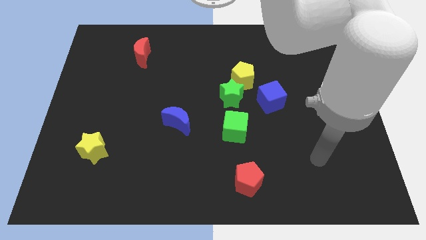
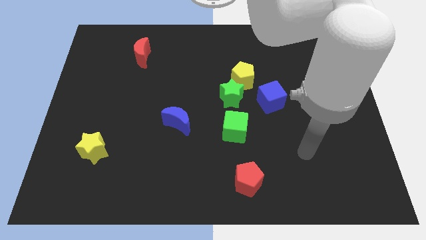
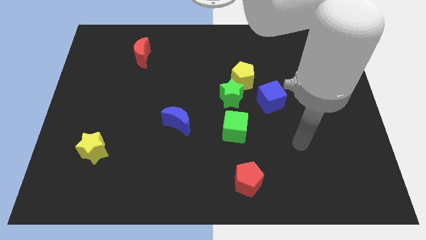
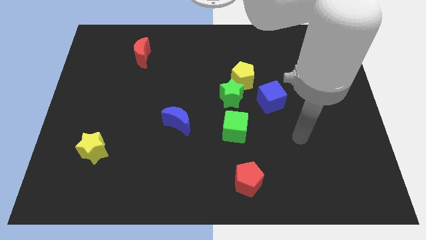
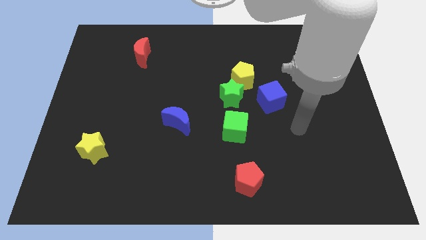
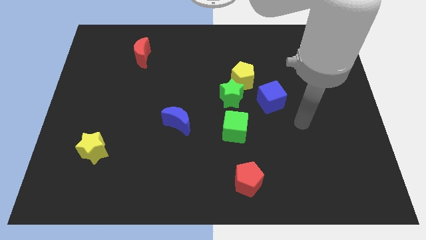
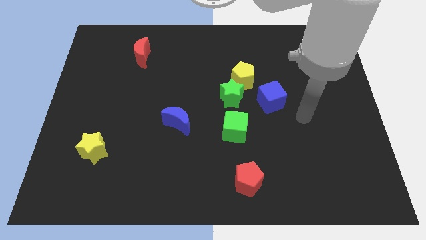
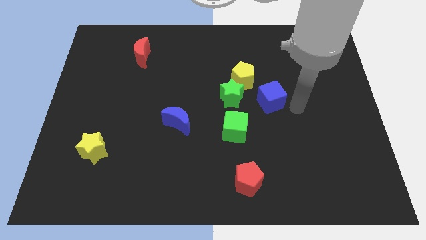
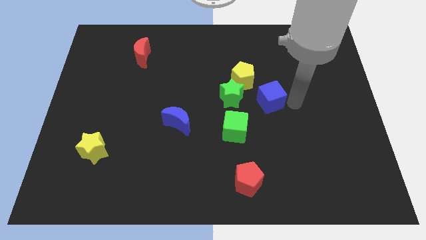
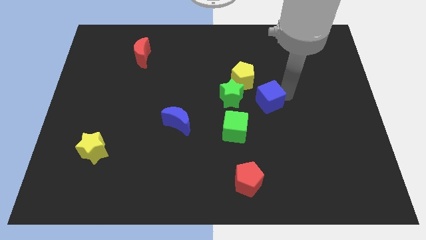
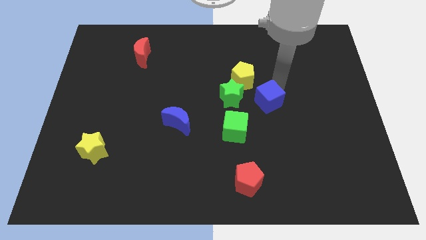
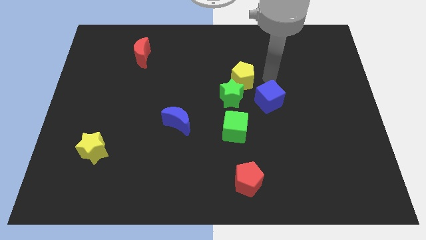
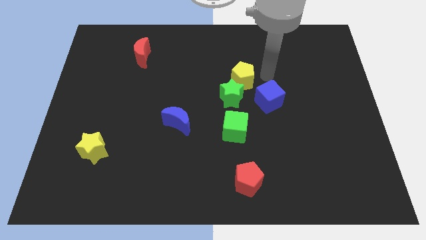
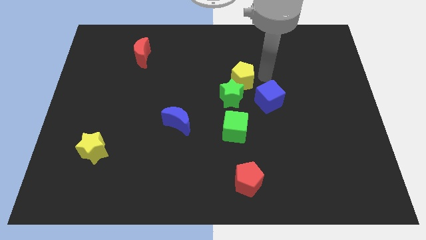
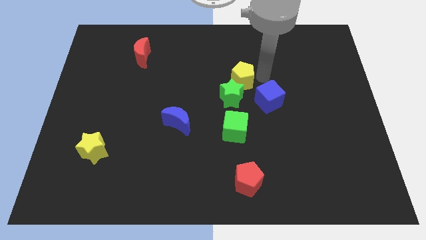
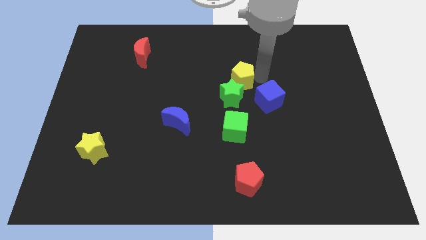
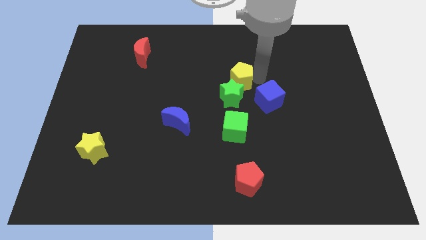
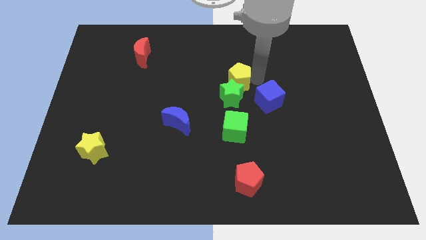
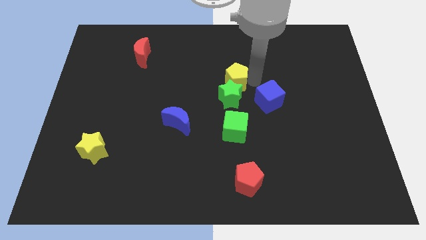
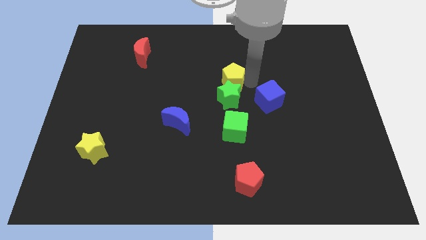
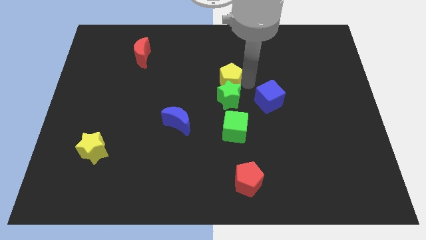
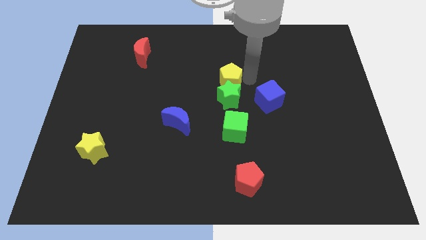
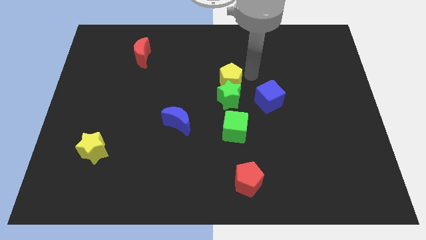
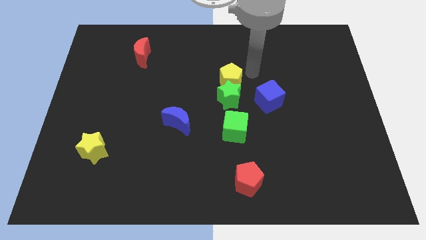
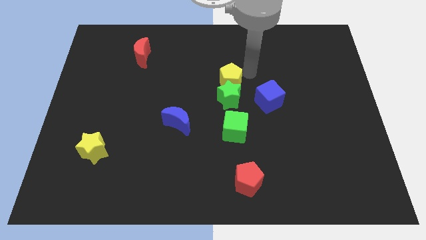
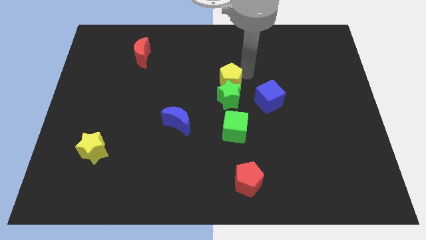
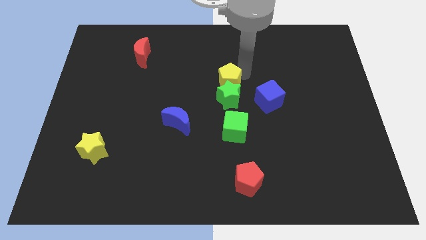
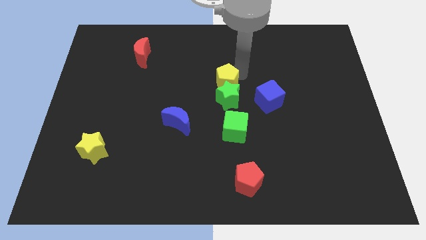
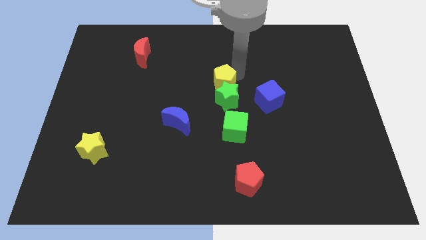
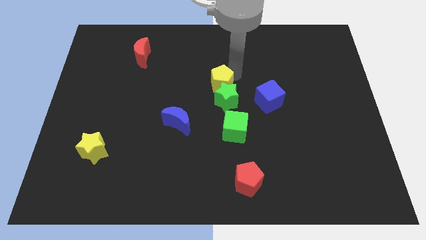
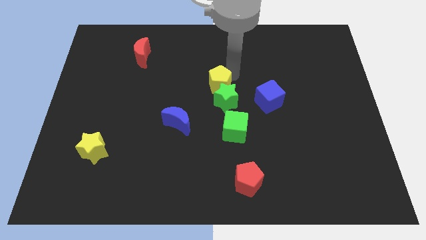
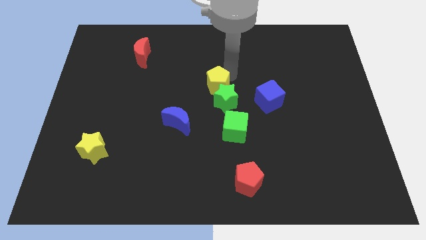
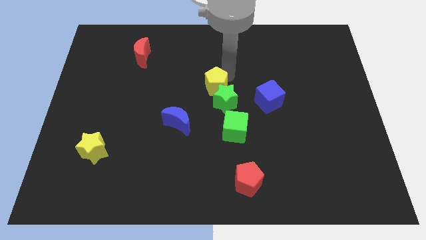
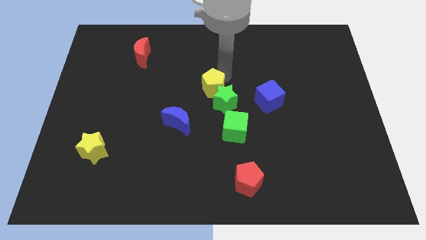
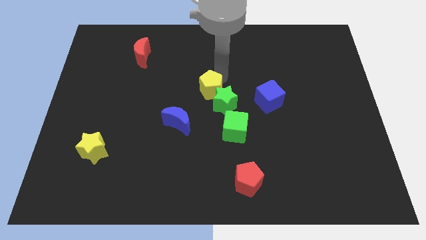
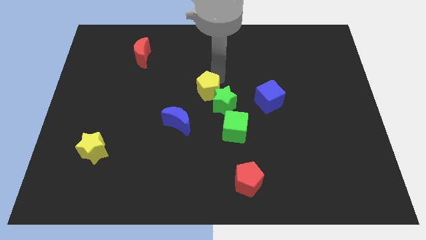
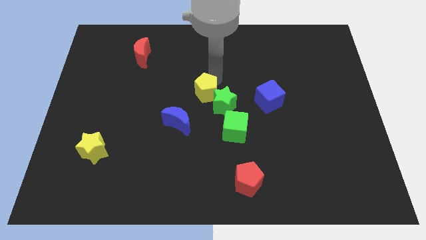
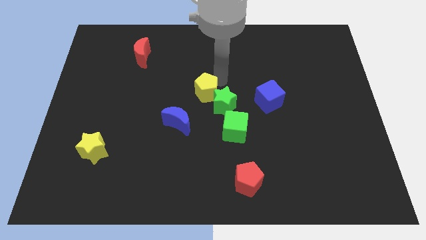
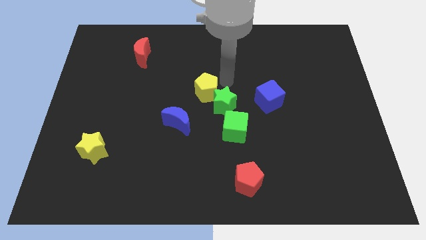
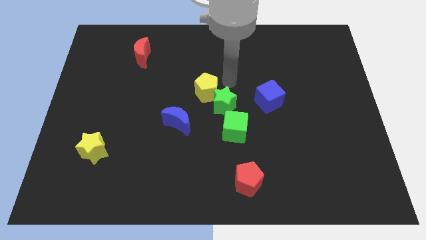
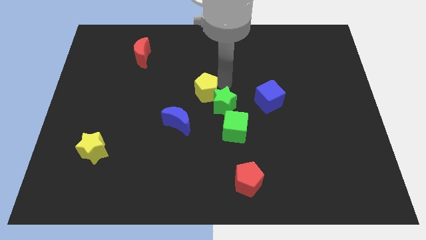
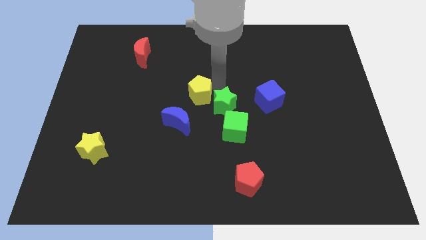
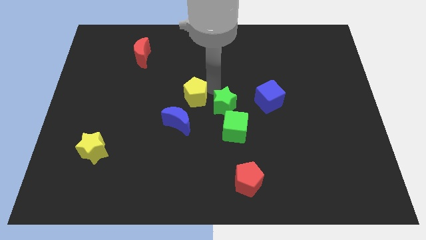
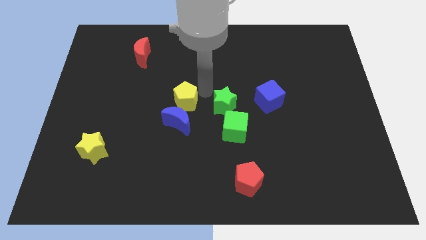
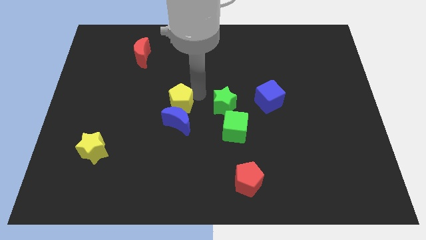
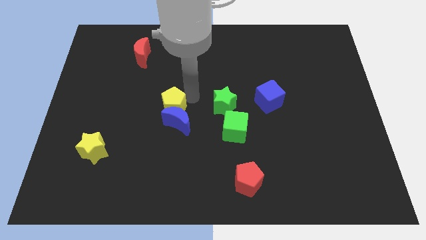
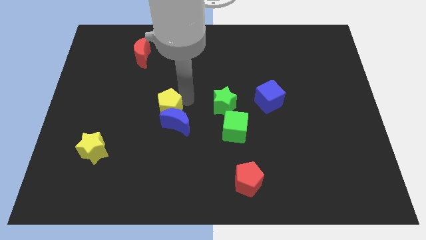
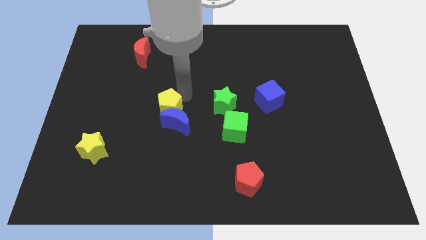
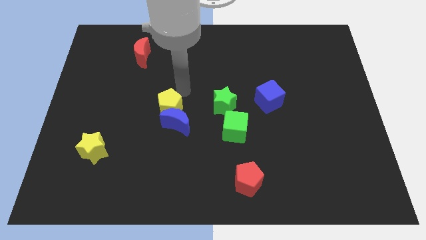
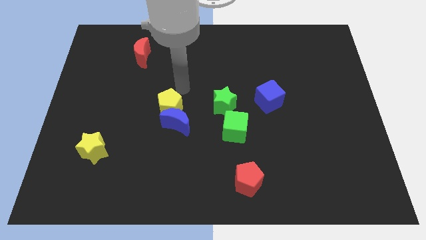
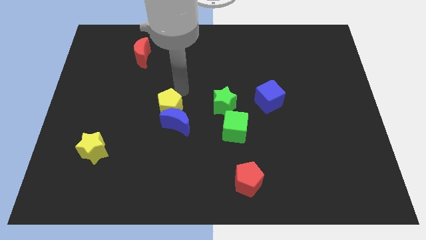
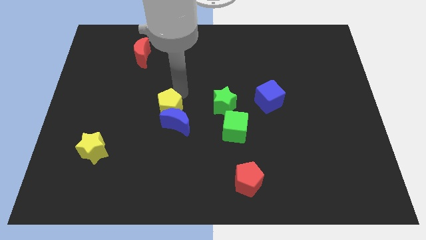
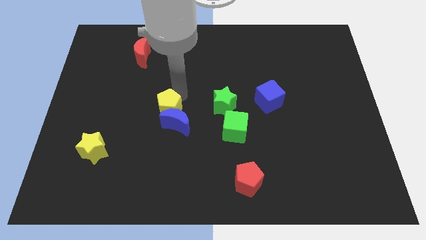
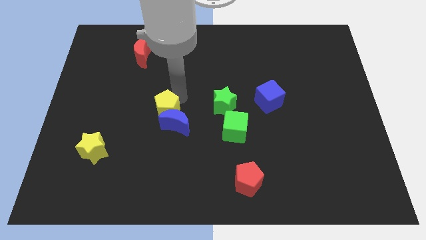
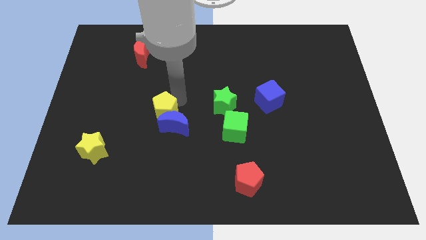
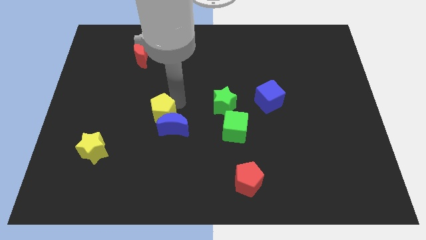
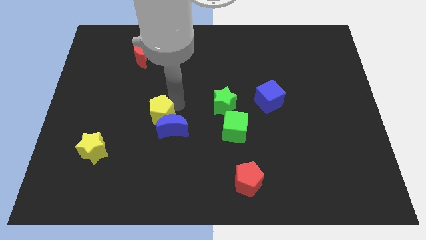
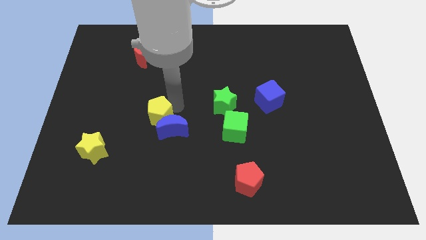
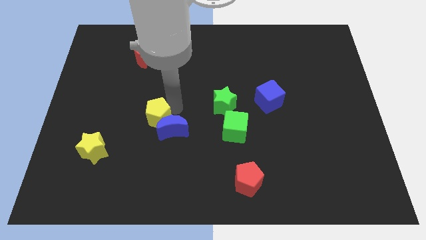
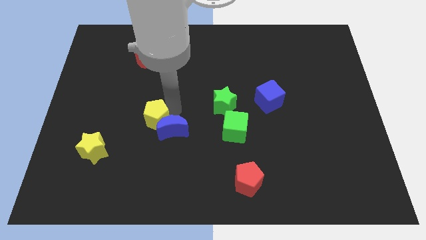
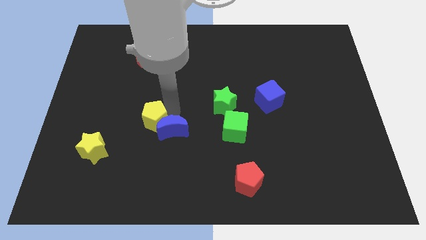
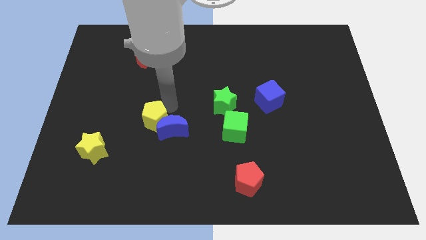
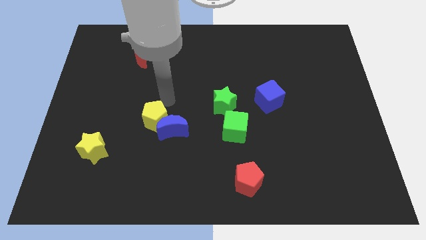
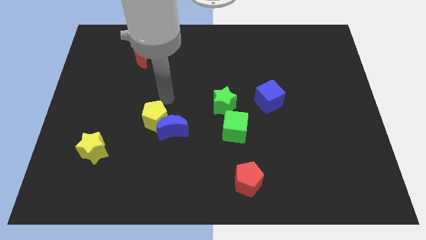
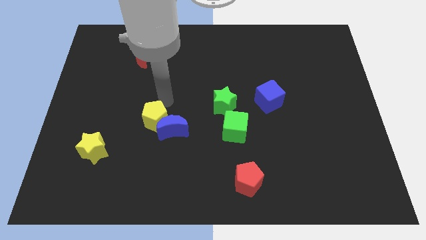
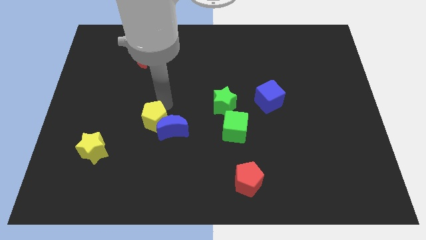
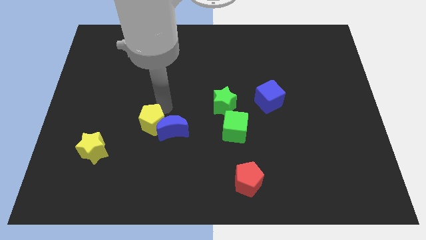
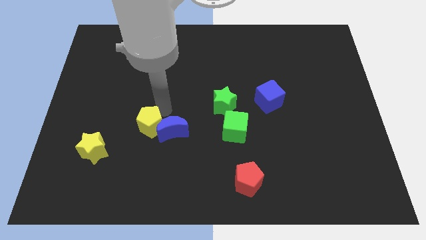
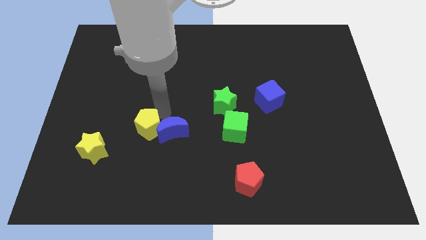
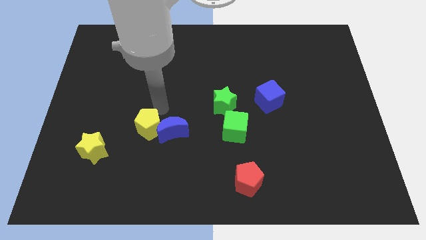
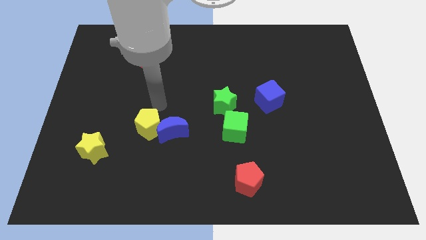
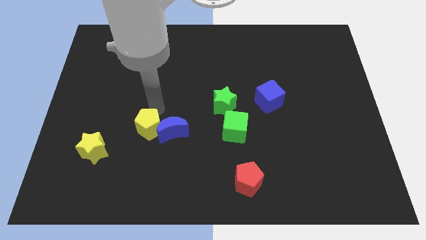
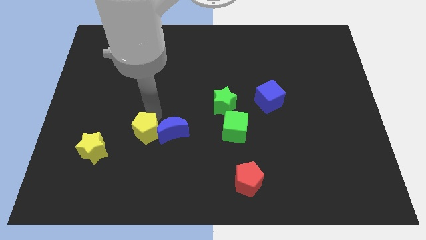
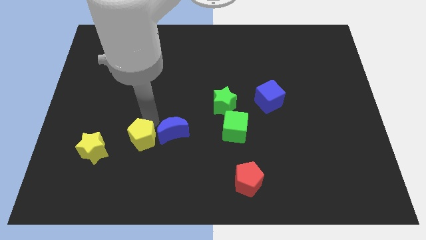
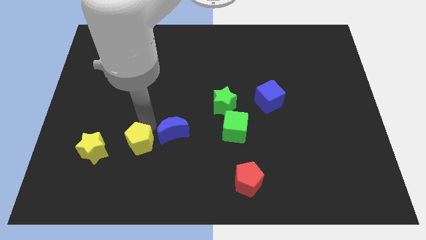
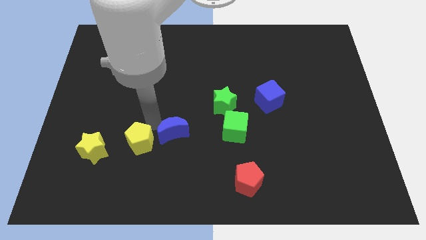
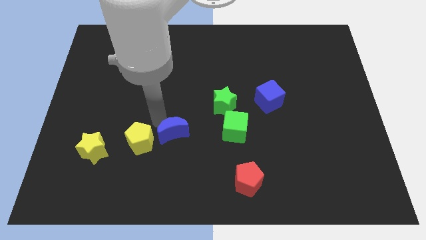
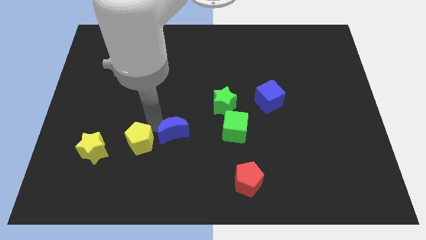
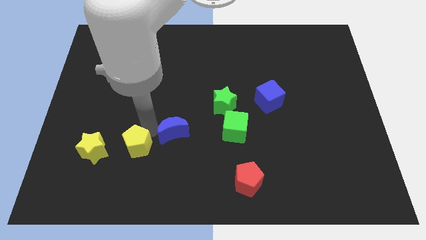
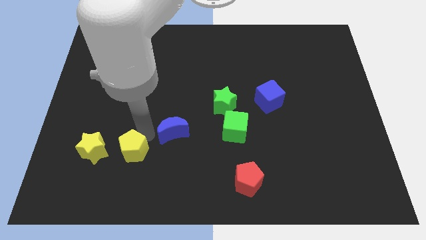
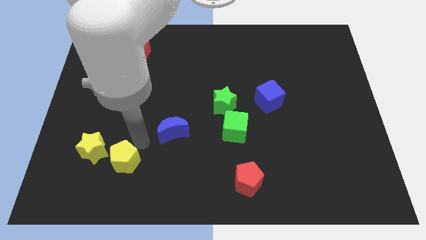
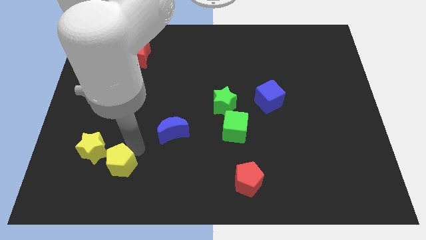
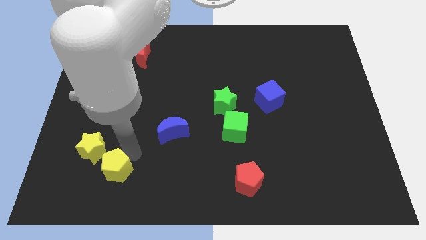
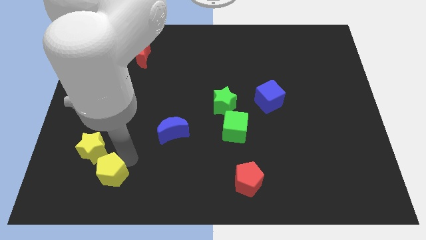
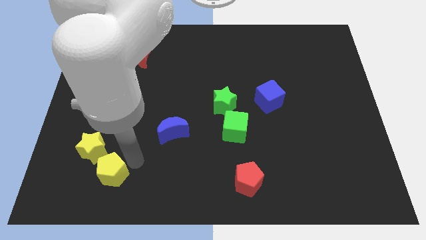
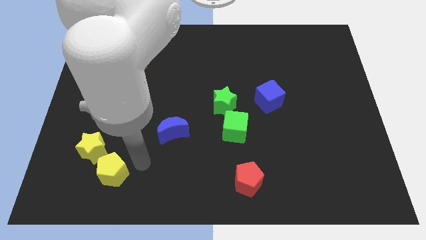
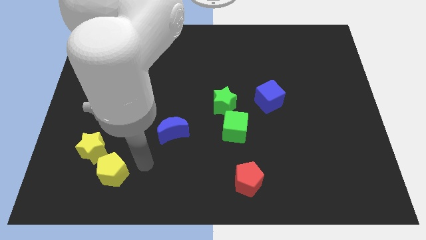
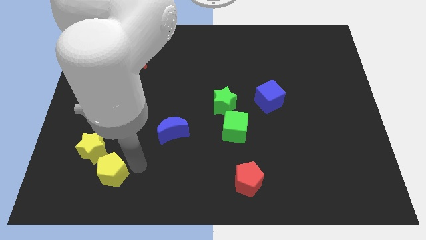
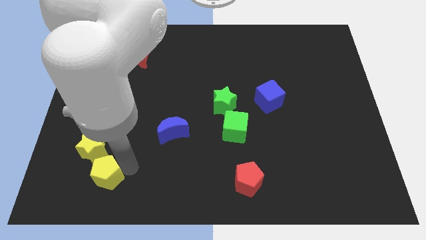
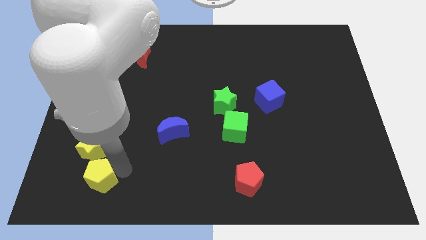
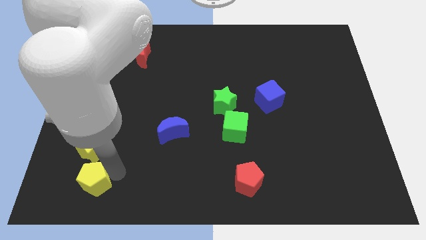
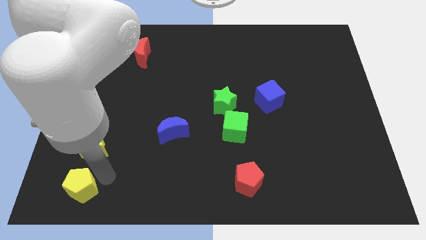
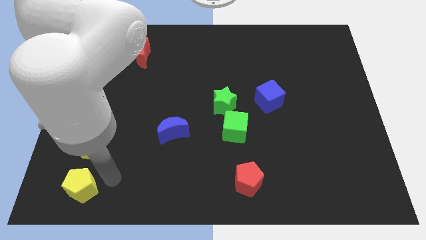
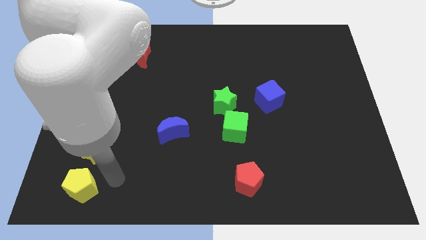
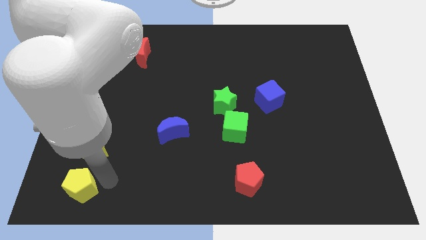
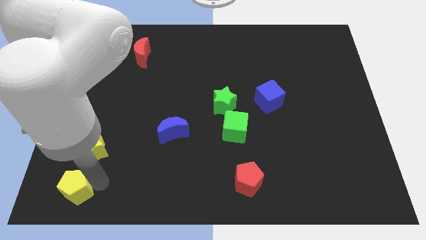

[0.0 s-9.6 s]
slide the yellow pentagon to the bottom left corner
